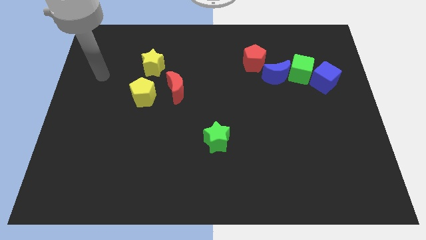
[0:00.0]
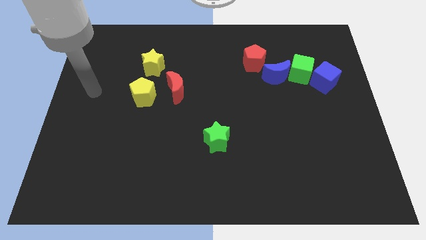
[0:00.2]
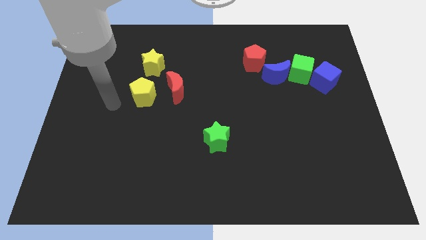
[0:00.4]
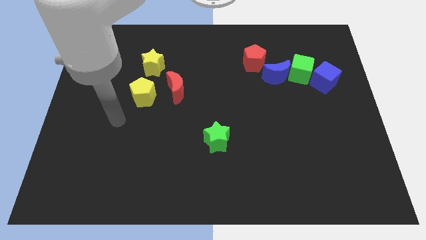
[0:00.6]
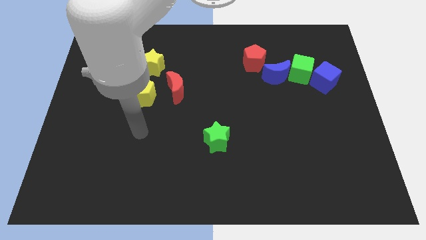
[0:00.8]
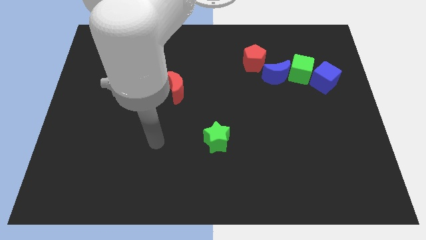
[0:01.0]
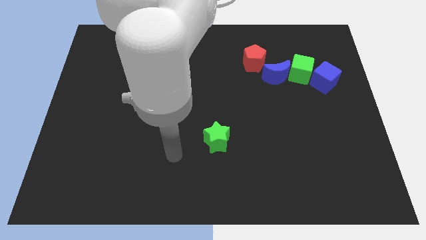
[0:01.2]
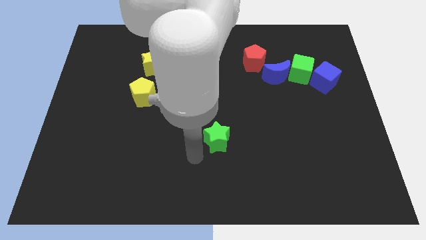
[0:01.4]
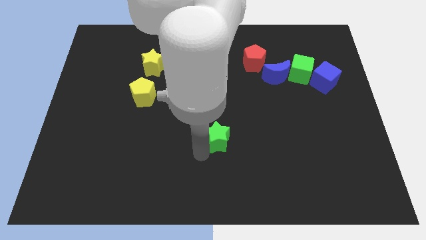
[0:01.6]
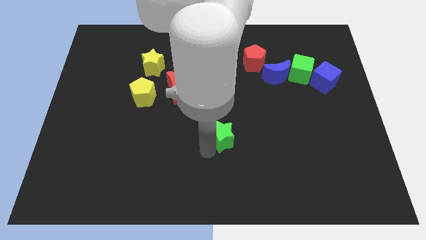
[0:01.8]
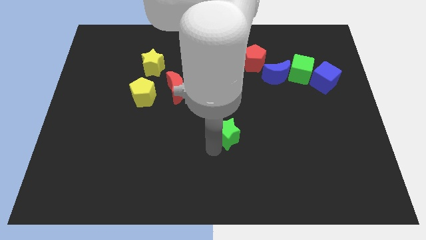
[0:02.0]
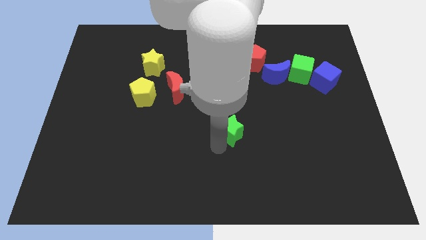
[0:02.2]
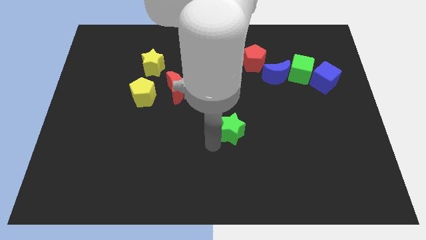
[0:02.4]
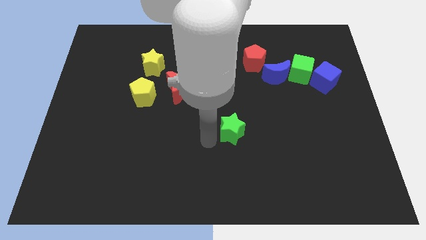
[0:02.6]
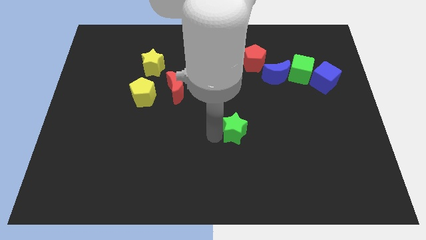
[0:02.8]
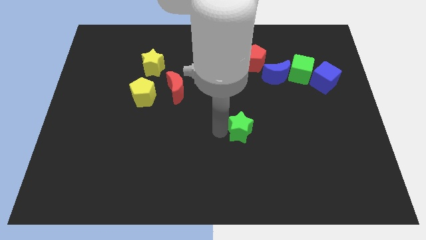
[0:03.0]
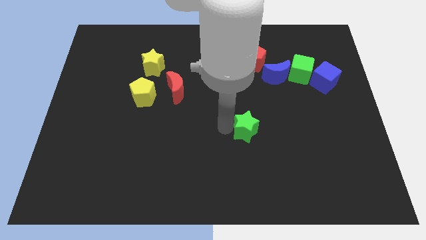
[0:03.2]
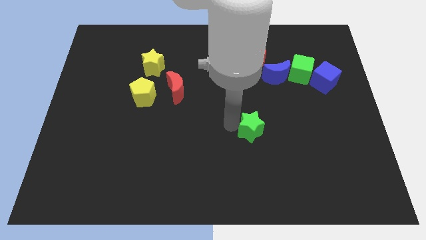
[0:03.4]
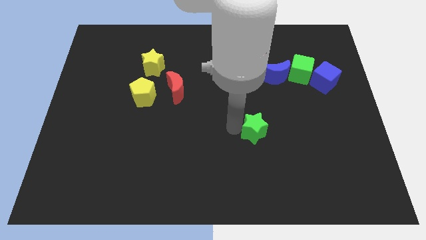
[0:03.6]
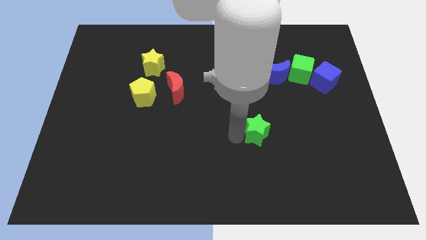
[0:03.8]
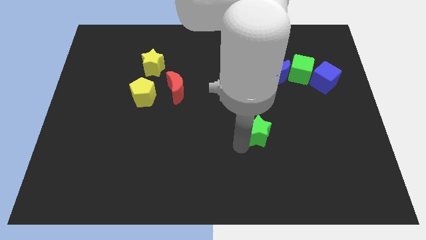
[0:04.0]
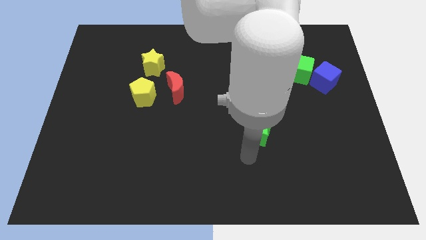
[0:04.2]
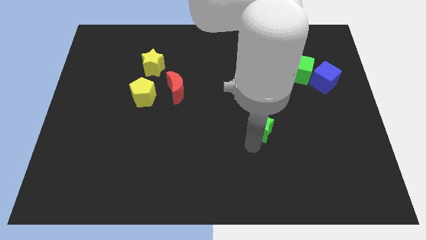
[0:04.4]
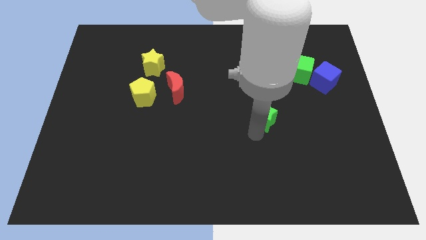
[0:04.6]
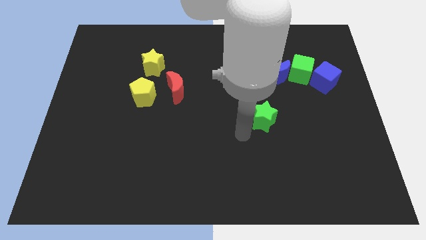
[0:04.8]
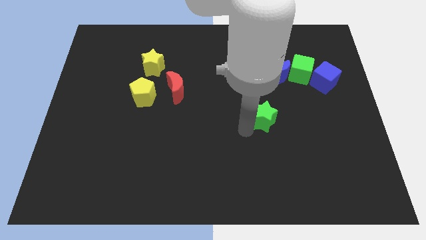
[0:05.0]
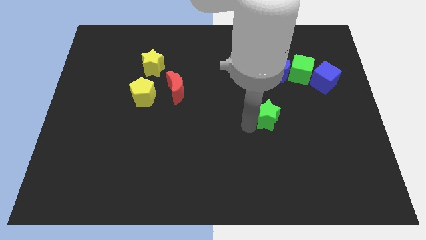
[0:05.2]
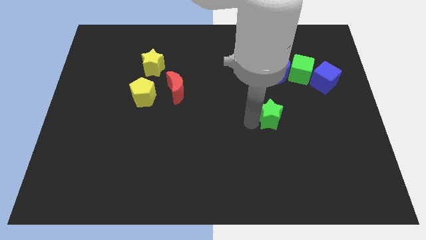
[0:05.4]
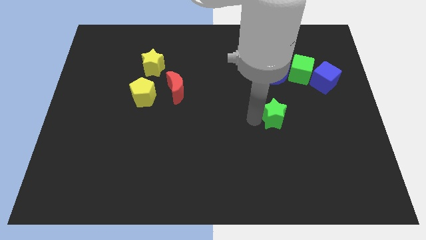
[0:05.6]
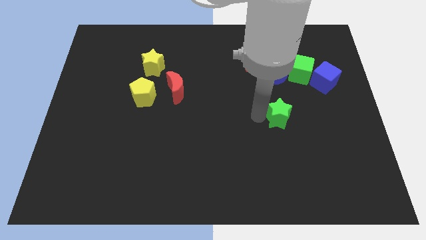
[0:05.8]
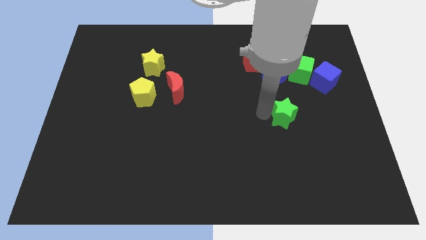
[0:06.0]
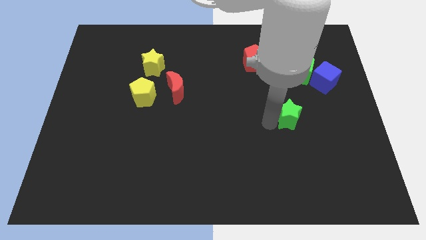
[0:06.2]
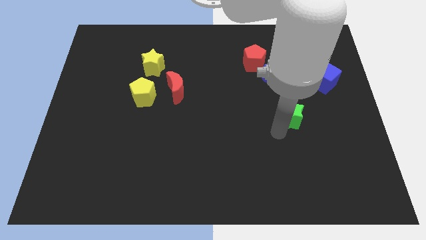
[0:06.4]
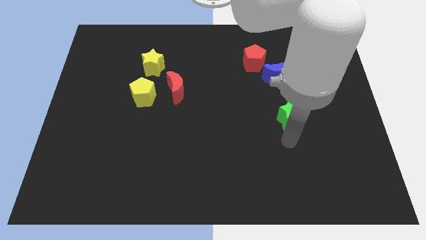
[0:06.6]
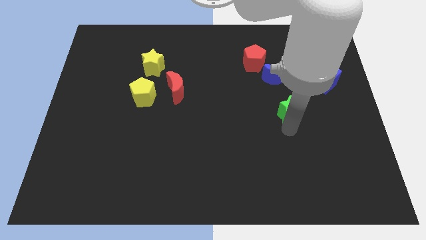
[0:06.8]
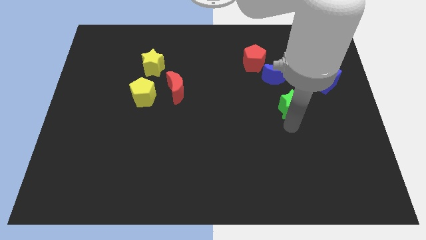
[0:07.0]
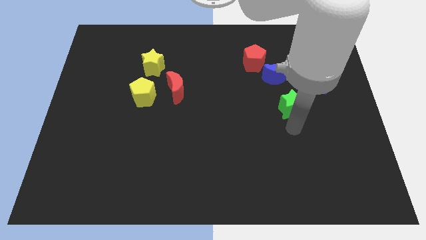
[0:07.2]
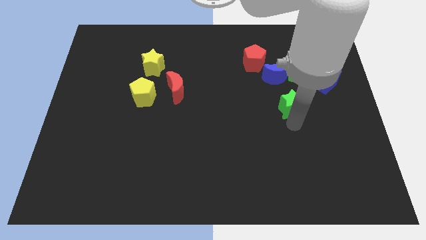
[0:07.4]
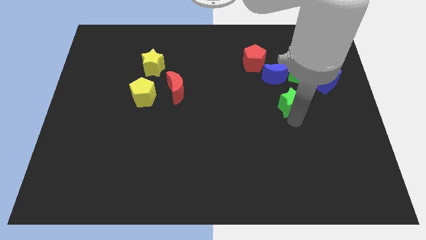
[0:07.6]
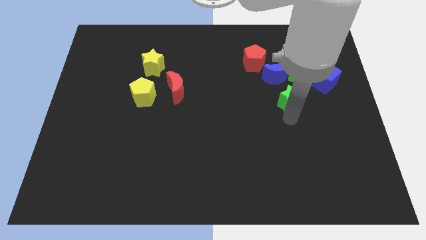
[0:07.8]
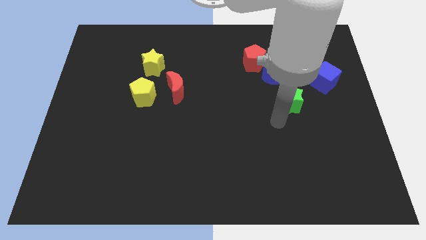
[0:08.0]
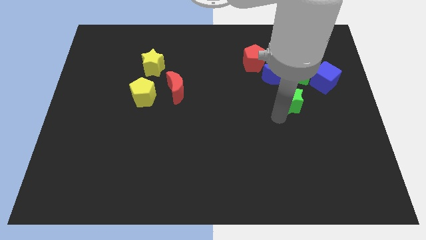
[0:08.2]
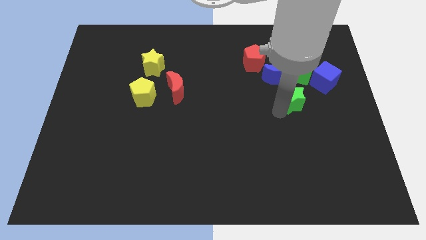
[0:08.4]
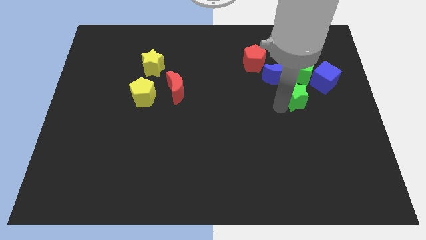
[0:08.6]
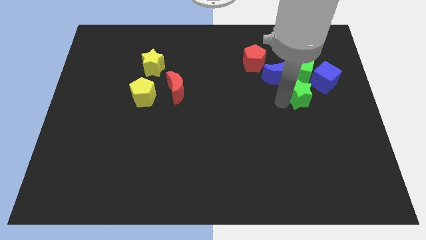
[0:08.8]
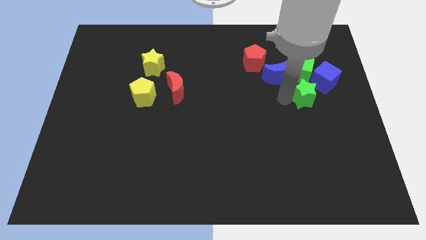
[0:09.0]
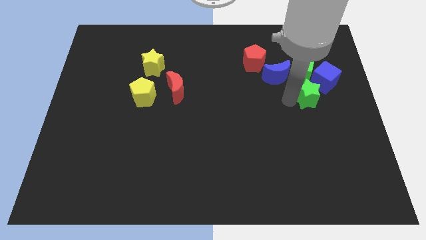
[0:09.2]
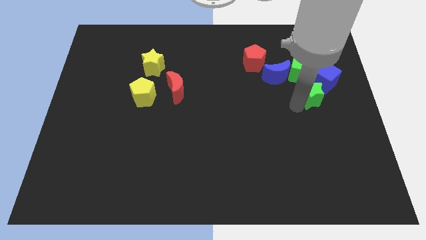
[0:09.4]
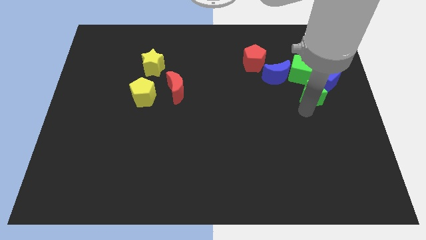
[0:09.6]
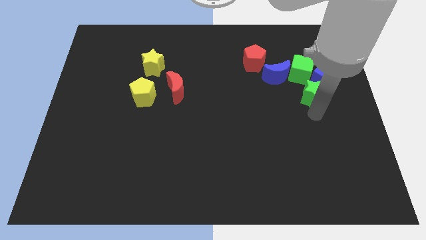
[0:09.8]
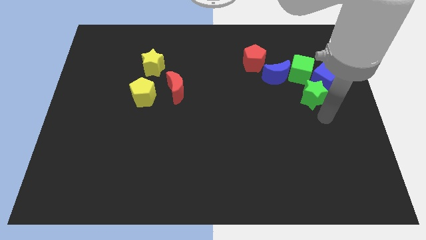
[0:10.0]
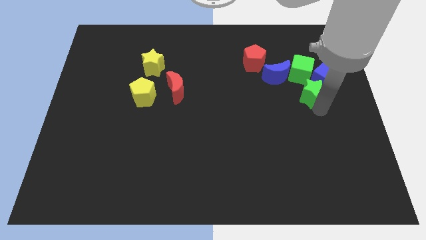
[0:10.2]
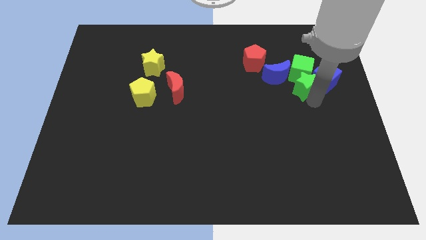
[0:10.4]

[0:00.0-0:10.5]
move the green star to the green cube

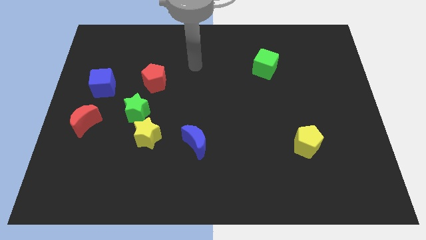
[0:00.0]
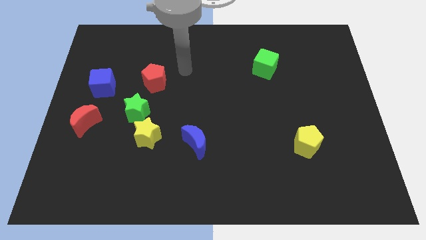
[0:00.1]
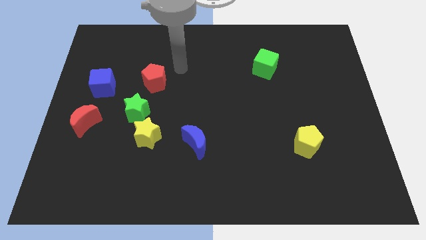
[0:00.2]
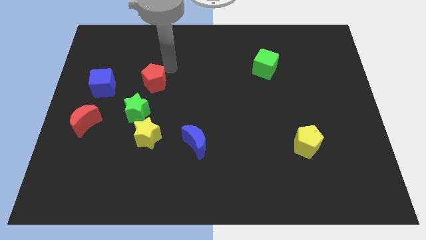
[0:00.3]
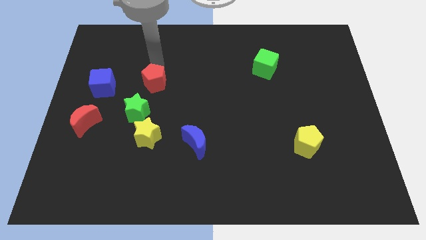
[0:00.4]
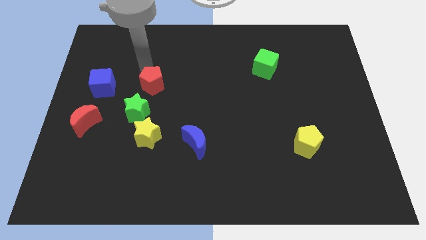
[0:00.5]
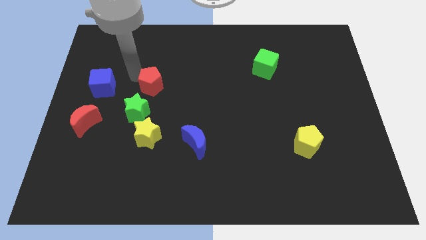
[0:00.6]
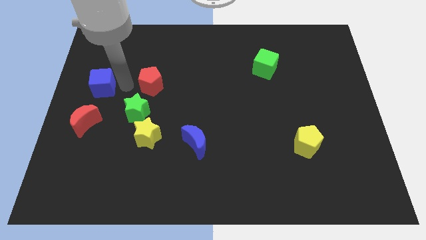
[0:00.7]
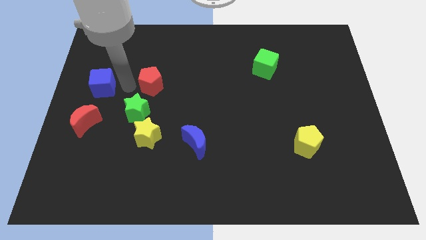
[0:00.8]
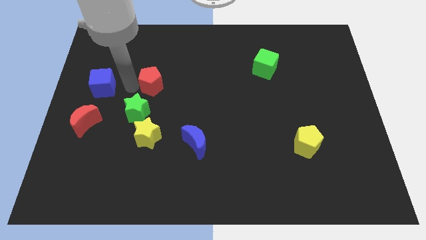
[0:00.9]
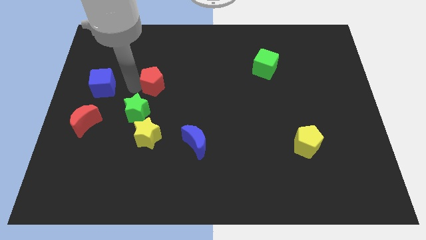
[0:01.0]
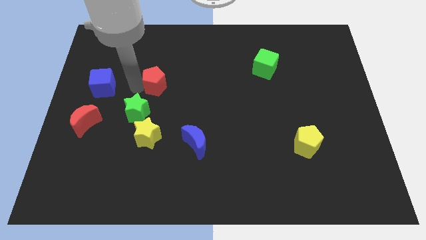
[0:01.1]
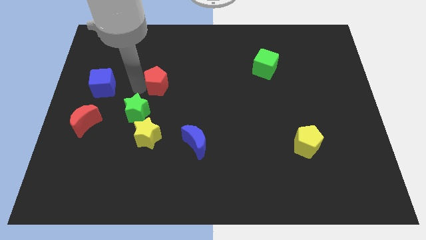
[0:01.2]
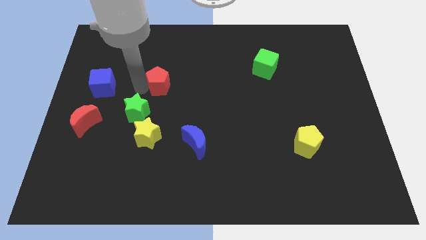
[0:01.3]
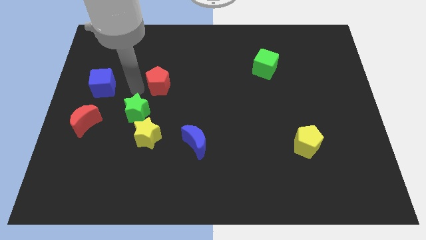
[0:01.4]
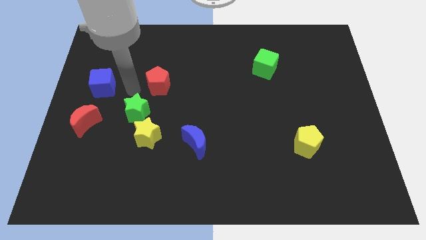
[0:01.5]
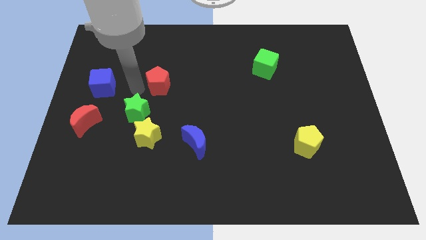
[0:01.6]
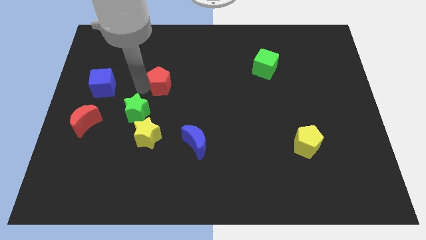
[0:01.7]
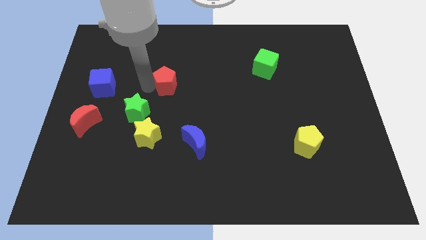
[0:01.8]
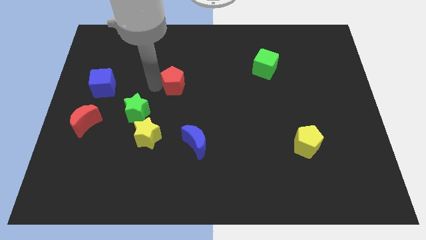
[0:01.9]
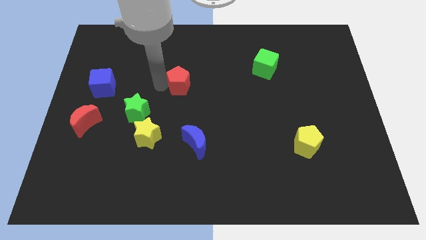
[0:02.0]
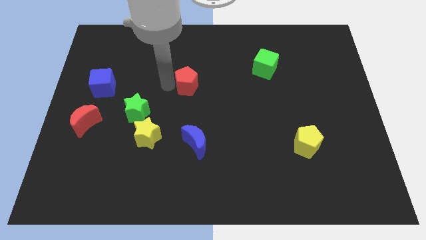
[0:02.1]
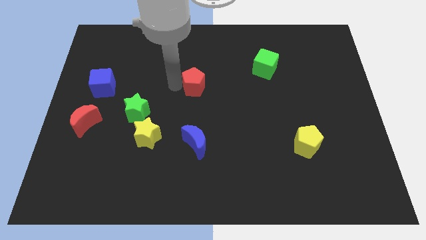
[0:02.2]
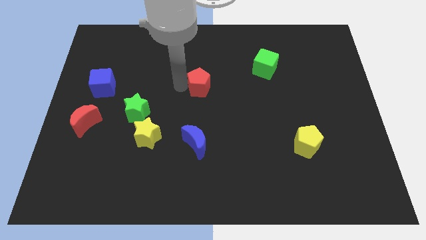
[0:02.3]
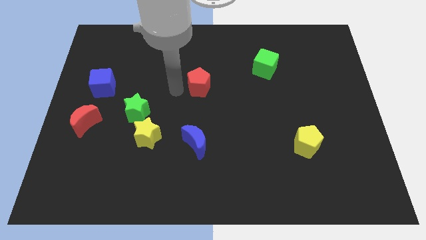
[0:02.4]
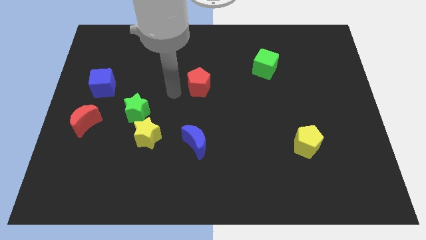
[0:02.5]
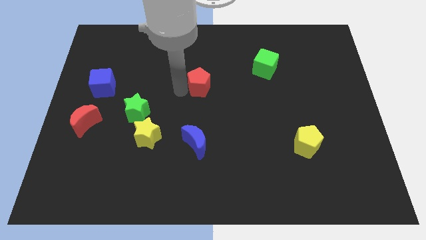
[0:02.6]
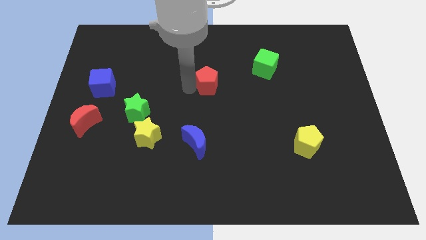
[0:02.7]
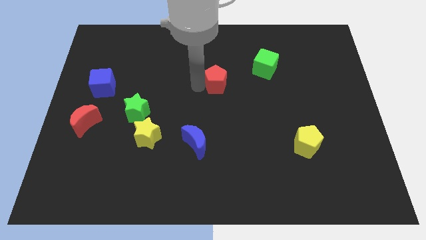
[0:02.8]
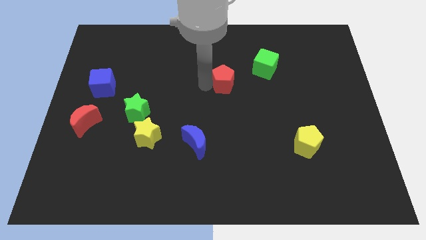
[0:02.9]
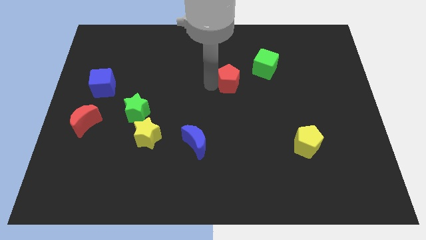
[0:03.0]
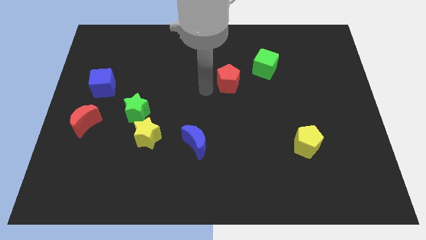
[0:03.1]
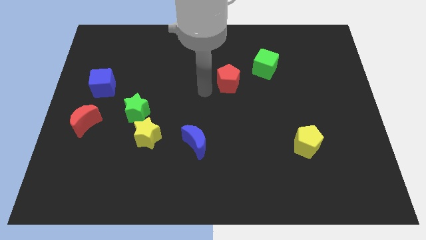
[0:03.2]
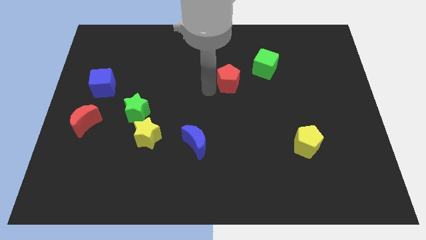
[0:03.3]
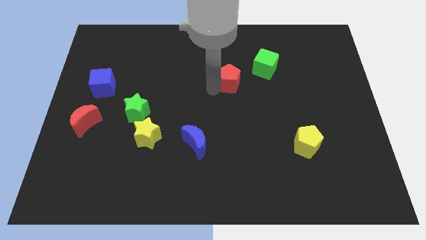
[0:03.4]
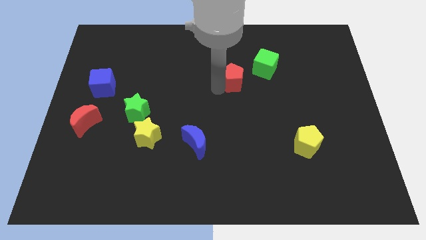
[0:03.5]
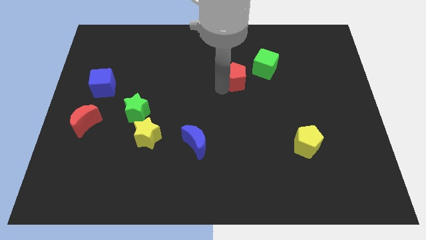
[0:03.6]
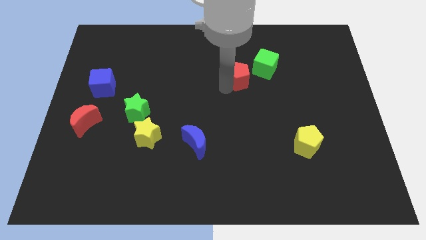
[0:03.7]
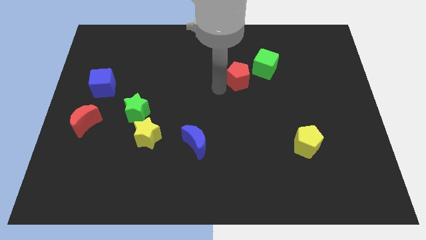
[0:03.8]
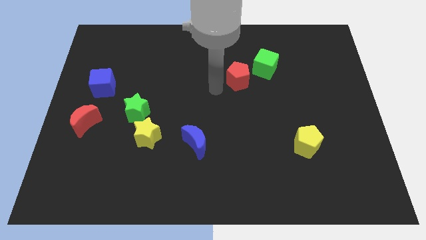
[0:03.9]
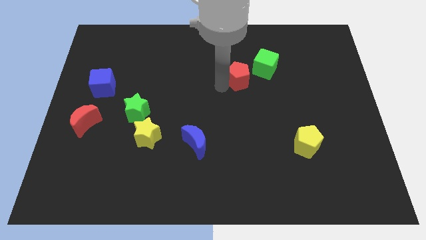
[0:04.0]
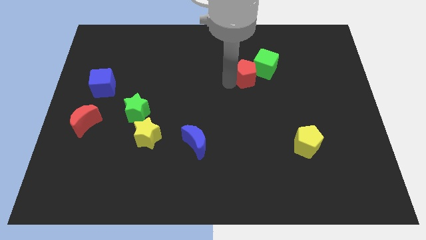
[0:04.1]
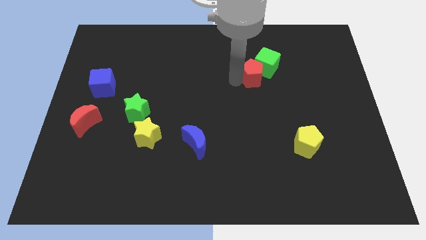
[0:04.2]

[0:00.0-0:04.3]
put the red pentagon towards the green cube
